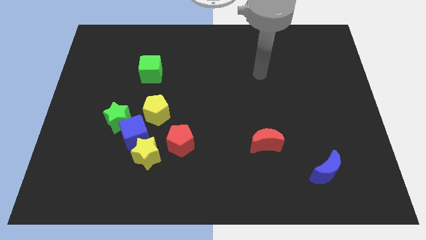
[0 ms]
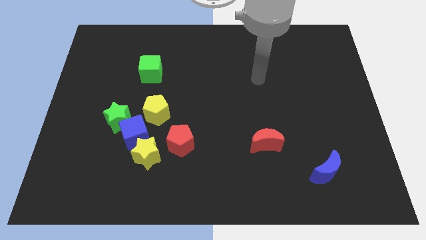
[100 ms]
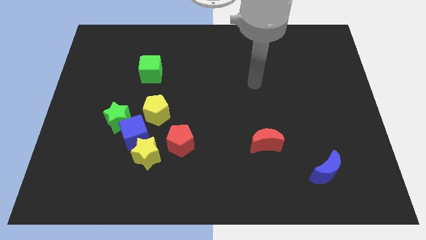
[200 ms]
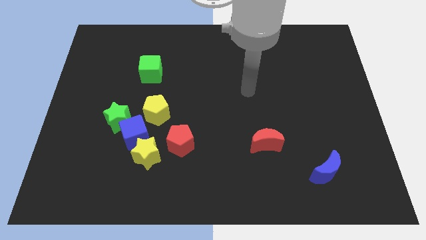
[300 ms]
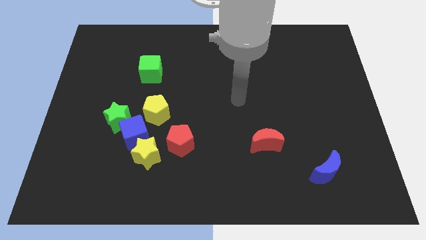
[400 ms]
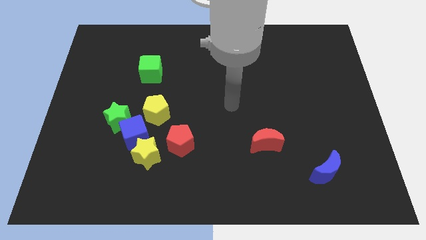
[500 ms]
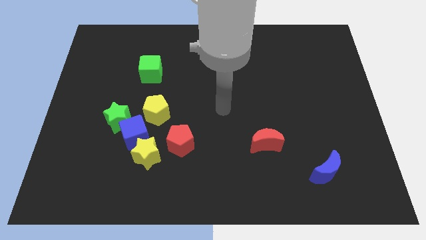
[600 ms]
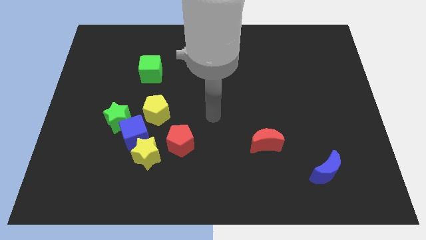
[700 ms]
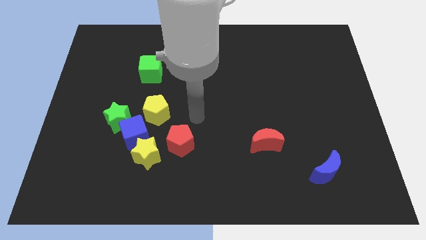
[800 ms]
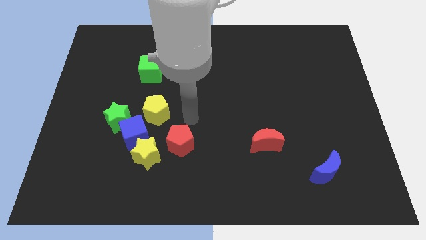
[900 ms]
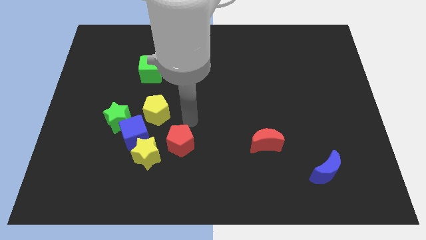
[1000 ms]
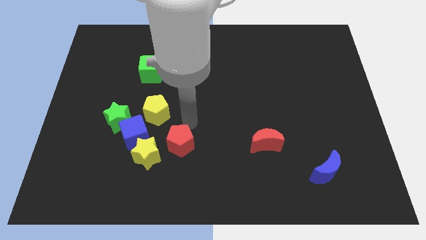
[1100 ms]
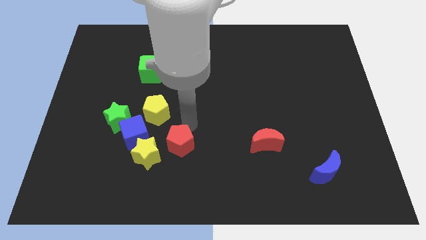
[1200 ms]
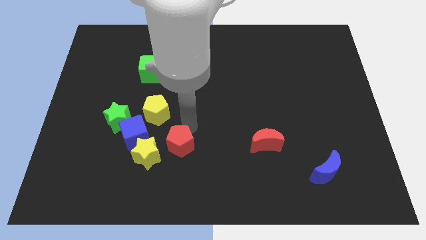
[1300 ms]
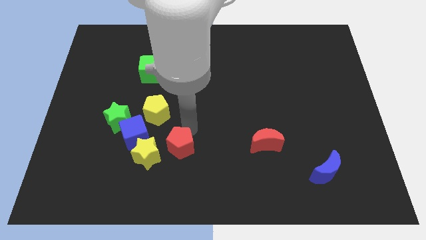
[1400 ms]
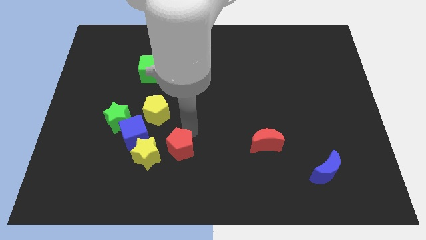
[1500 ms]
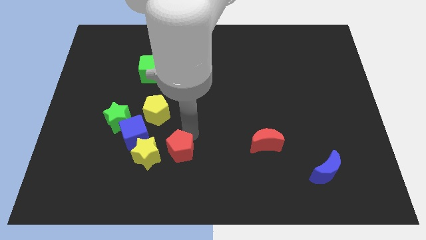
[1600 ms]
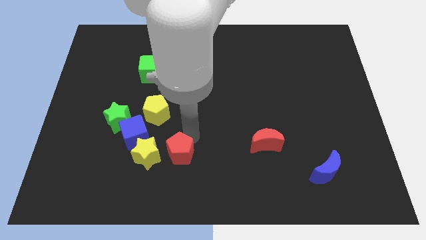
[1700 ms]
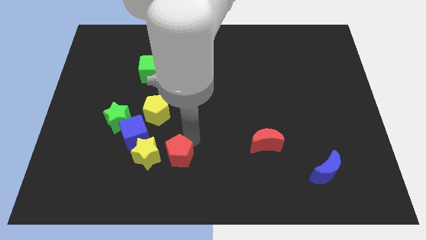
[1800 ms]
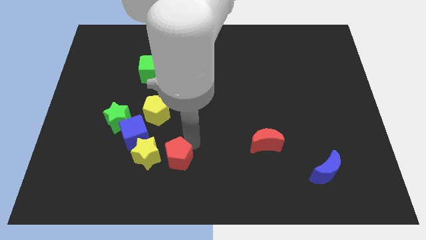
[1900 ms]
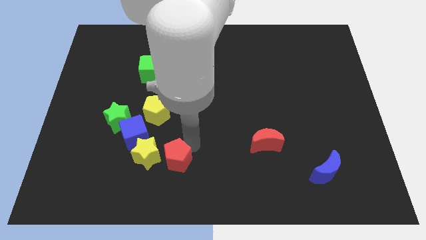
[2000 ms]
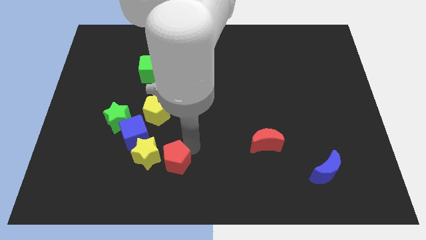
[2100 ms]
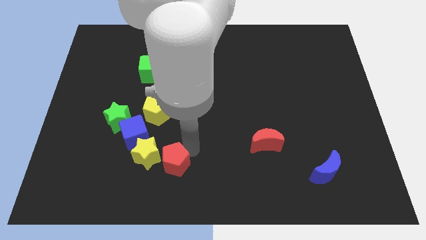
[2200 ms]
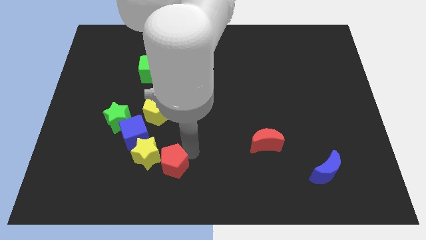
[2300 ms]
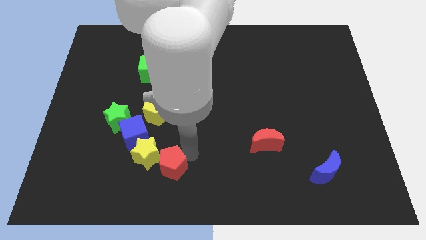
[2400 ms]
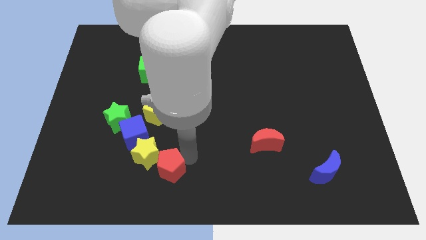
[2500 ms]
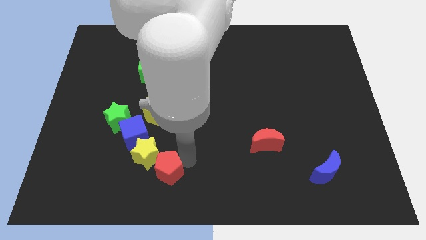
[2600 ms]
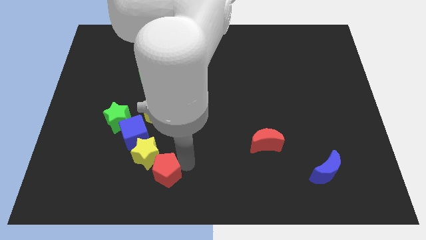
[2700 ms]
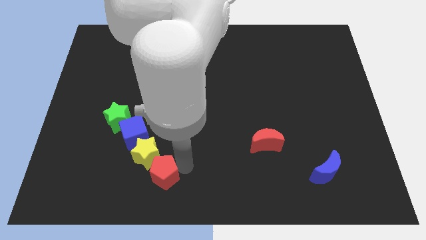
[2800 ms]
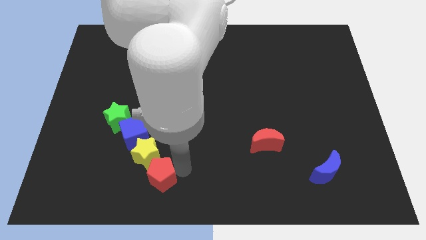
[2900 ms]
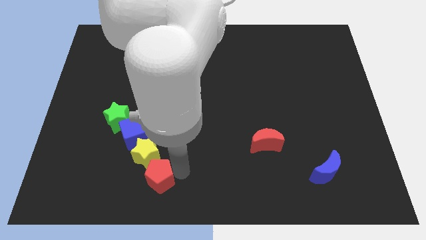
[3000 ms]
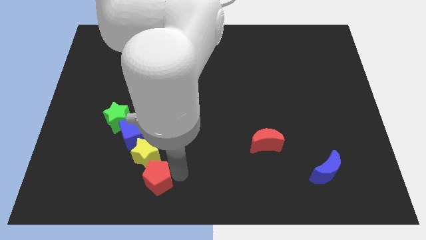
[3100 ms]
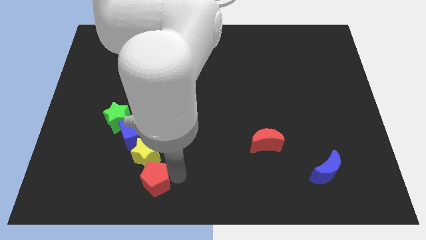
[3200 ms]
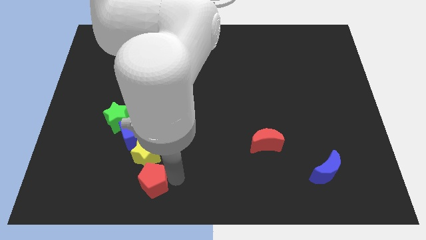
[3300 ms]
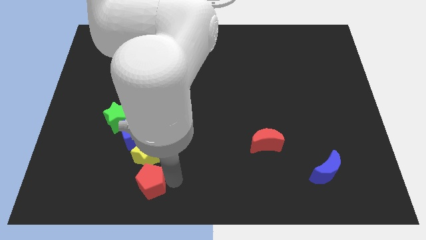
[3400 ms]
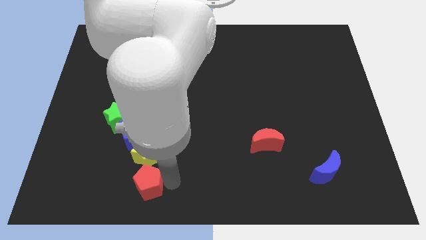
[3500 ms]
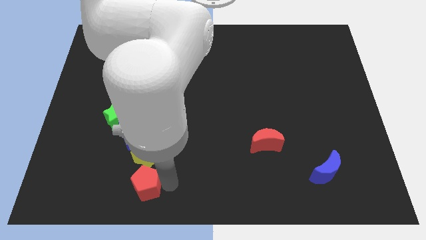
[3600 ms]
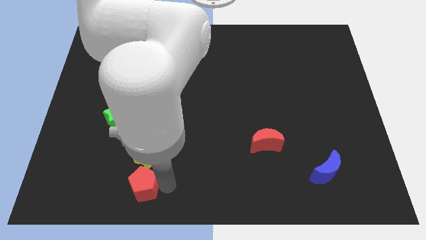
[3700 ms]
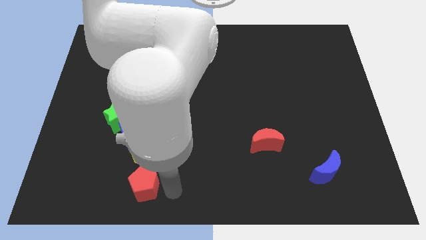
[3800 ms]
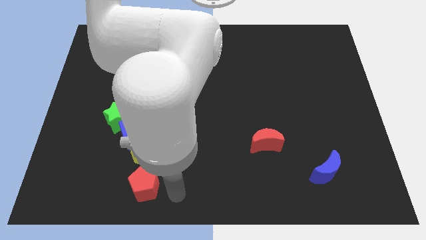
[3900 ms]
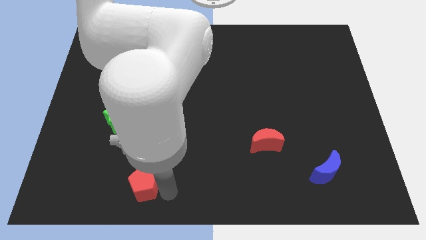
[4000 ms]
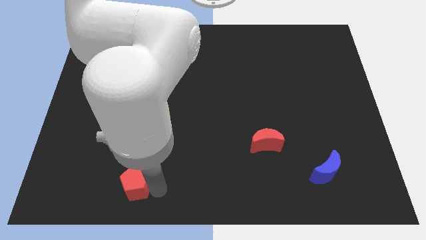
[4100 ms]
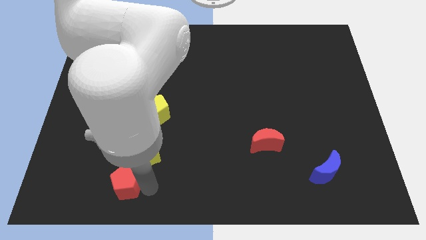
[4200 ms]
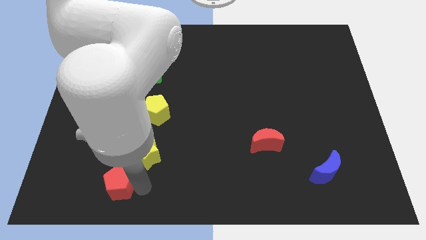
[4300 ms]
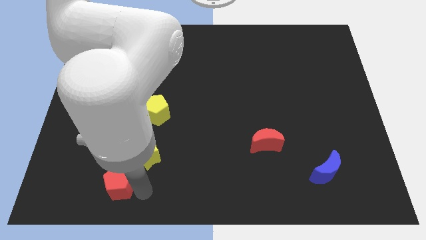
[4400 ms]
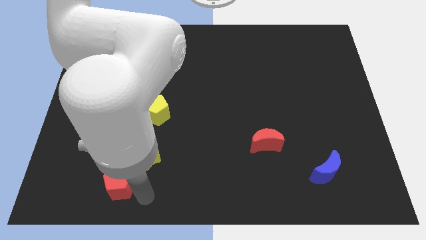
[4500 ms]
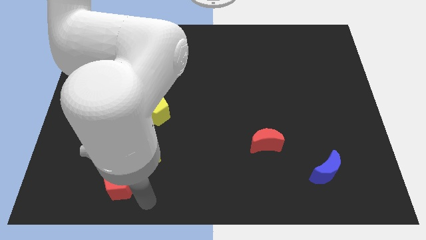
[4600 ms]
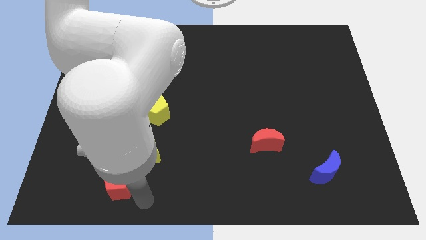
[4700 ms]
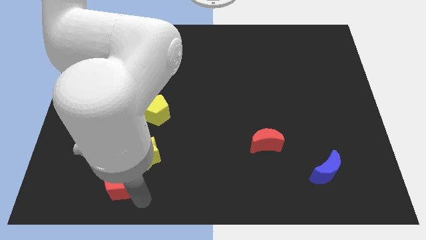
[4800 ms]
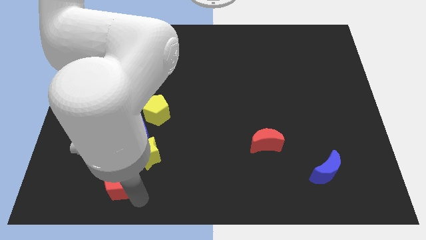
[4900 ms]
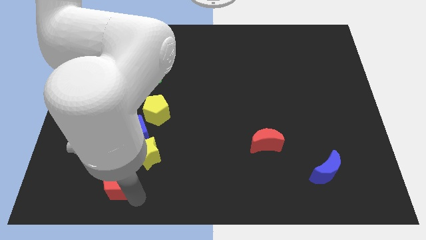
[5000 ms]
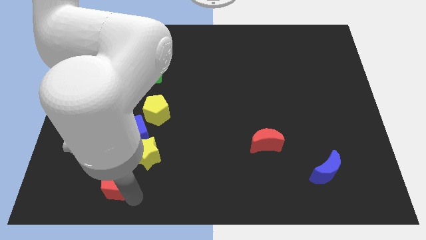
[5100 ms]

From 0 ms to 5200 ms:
slide the red pentagon a little bit left

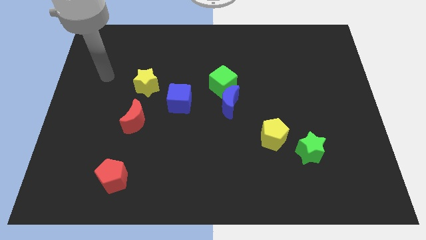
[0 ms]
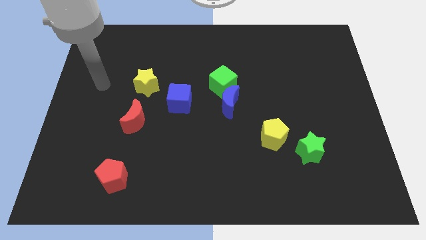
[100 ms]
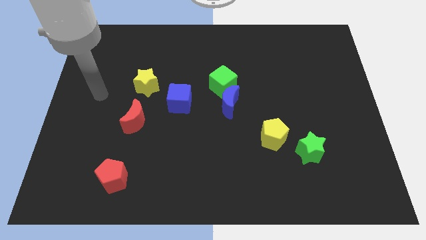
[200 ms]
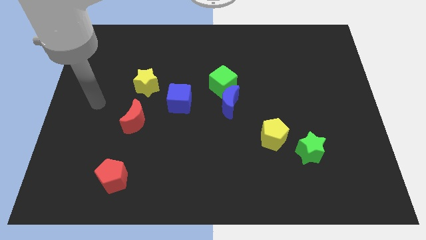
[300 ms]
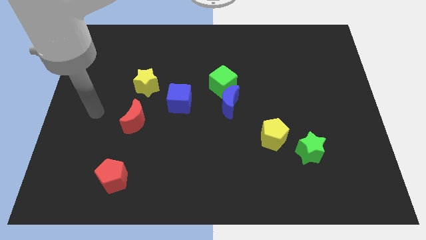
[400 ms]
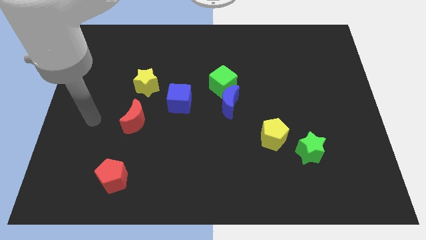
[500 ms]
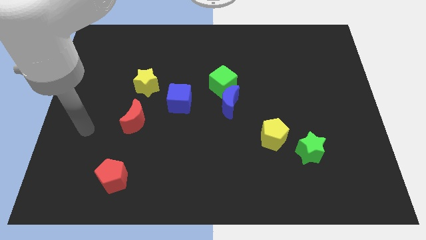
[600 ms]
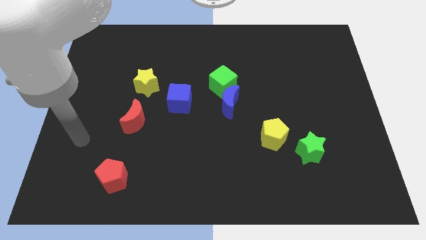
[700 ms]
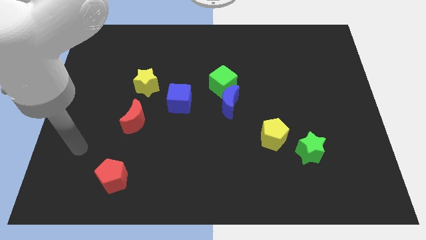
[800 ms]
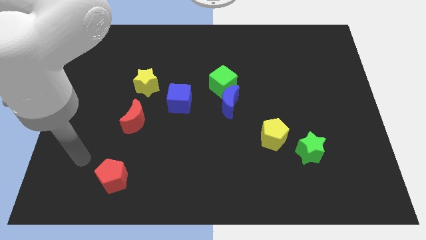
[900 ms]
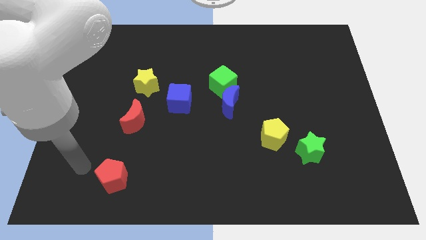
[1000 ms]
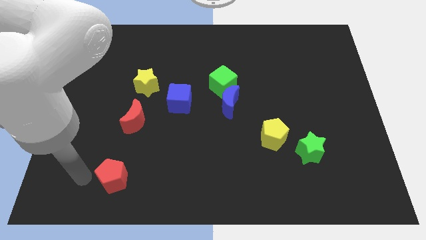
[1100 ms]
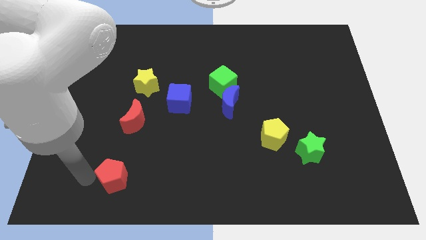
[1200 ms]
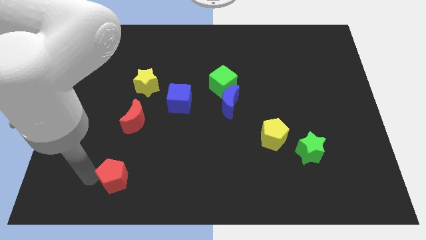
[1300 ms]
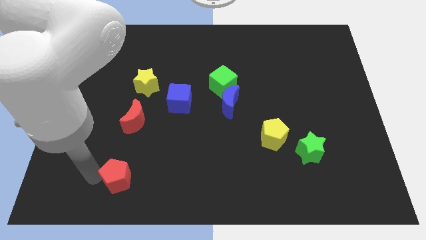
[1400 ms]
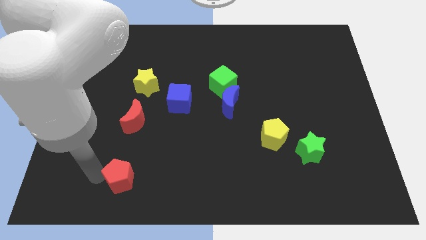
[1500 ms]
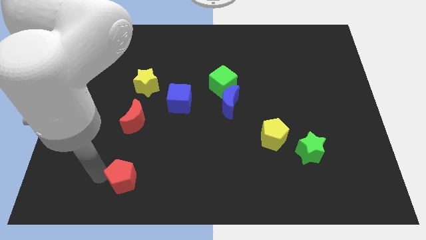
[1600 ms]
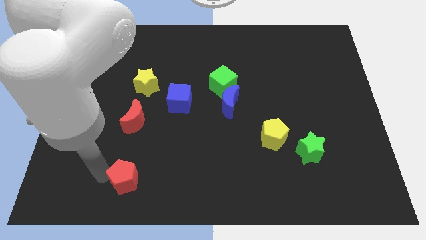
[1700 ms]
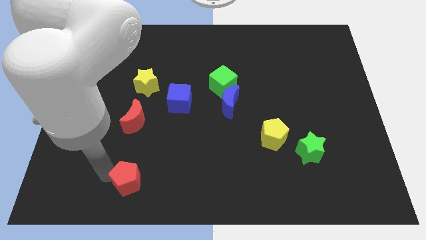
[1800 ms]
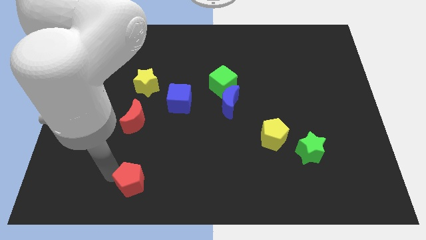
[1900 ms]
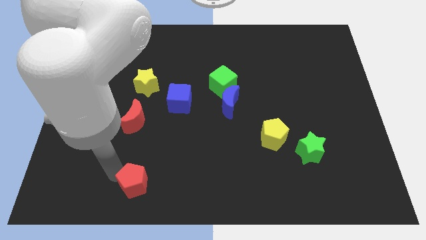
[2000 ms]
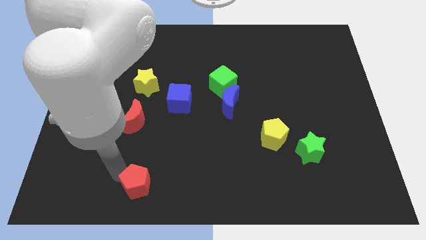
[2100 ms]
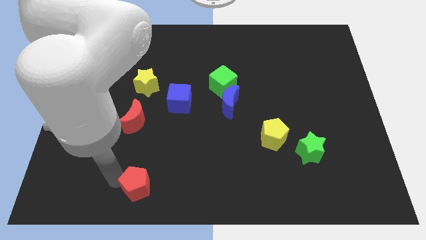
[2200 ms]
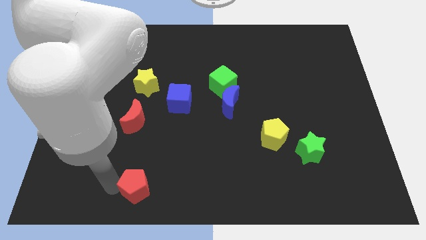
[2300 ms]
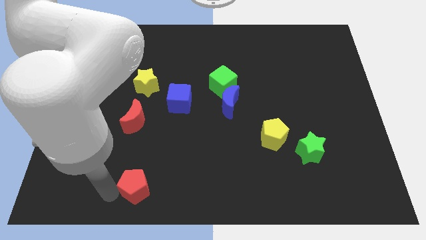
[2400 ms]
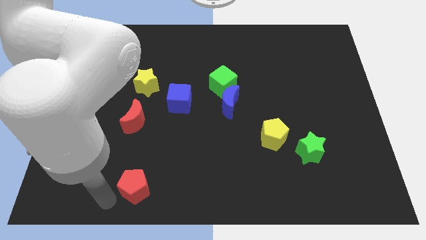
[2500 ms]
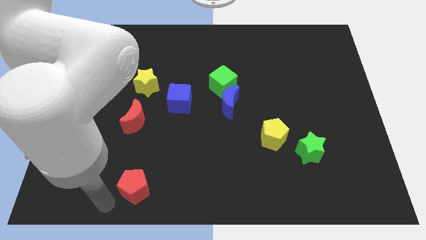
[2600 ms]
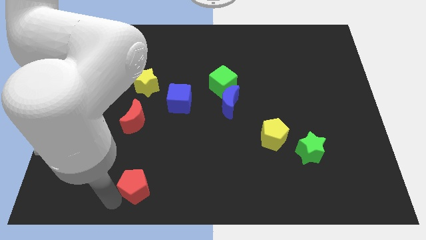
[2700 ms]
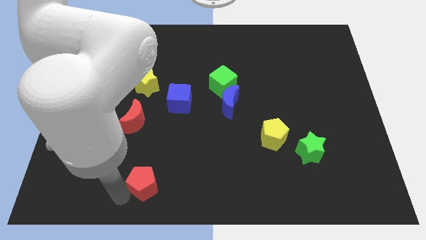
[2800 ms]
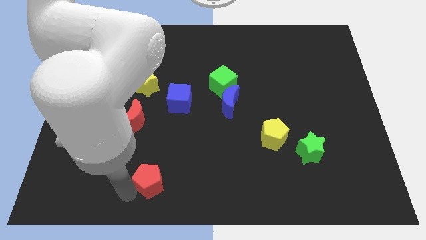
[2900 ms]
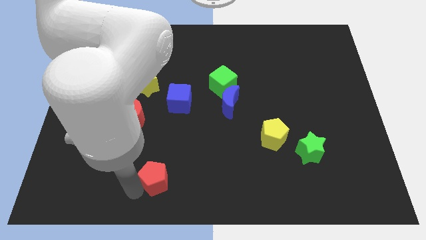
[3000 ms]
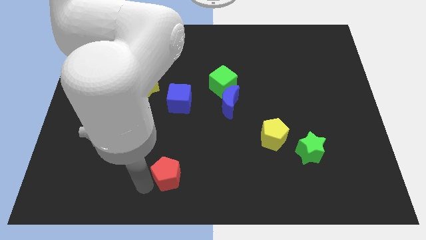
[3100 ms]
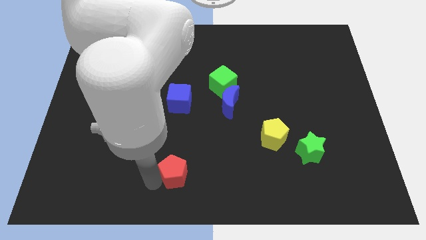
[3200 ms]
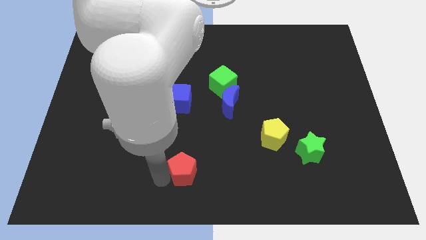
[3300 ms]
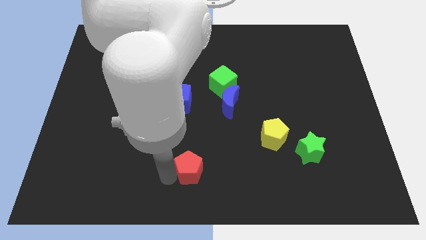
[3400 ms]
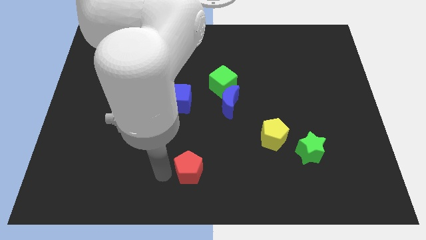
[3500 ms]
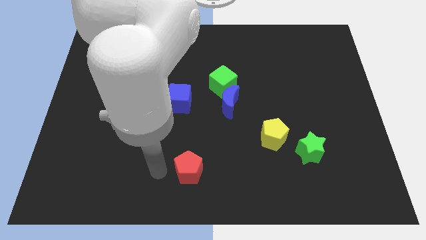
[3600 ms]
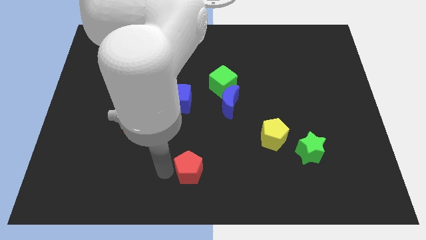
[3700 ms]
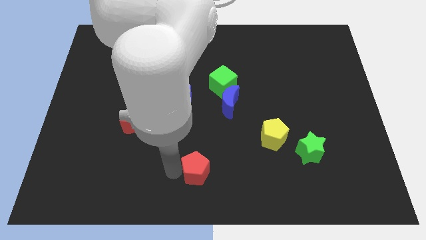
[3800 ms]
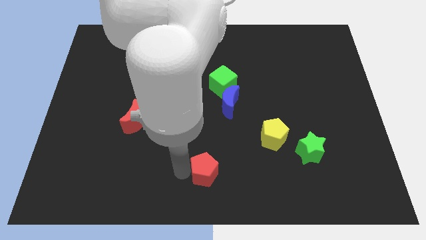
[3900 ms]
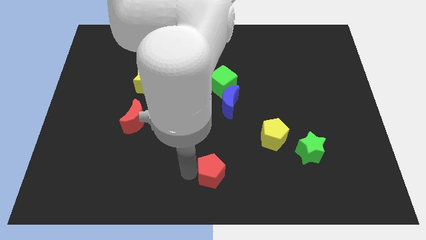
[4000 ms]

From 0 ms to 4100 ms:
push the red pentagon right
